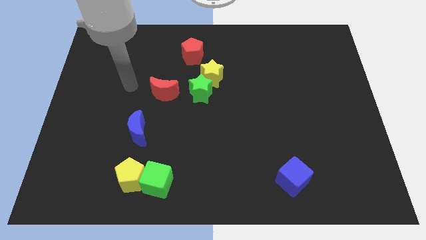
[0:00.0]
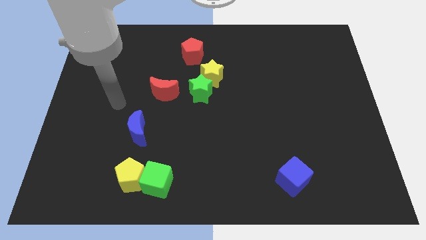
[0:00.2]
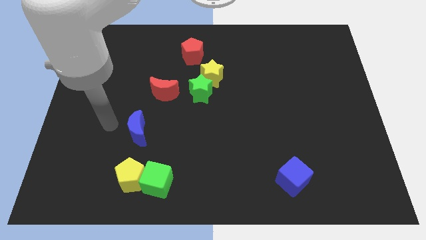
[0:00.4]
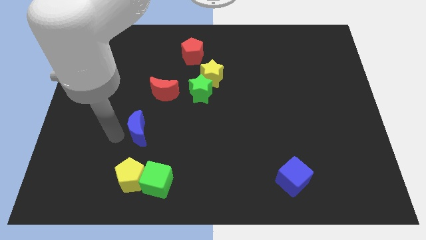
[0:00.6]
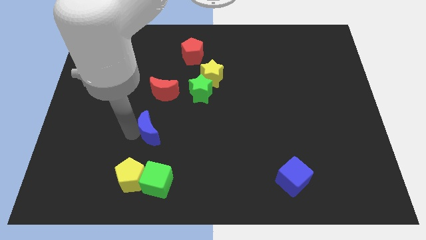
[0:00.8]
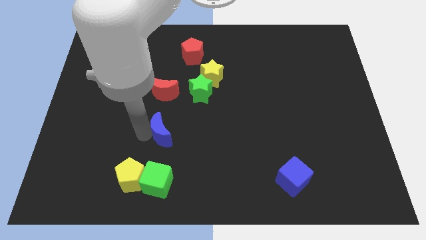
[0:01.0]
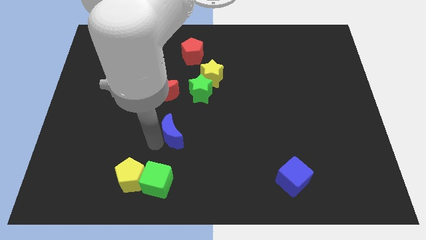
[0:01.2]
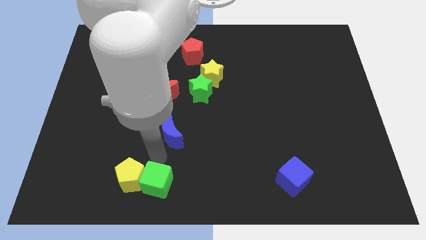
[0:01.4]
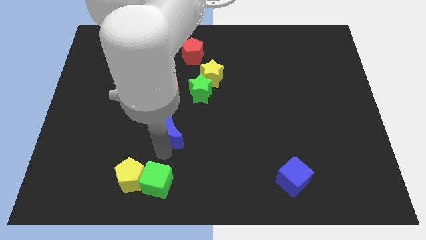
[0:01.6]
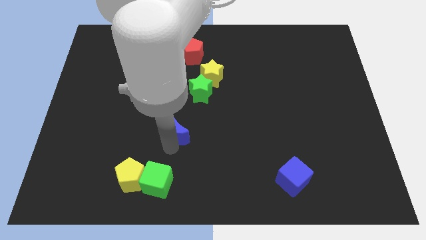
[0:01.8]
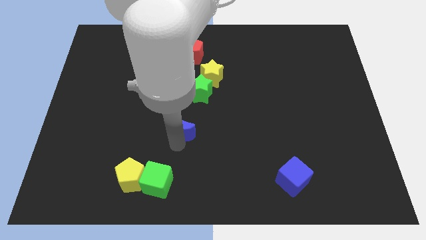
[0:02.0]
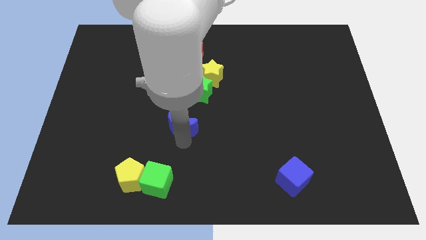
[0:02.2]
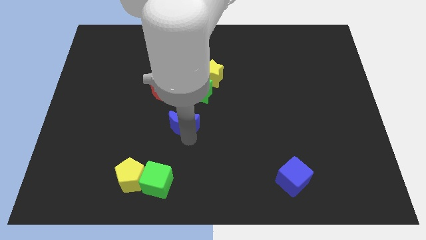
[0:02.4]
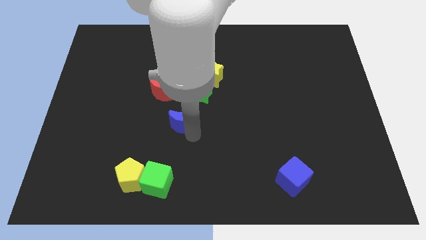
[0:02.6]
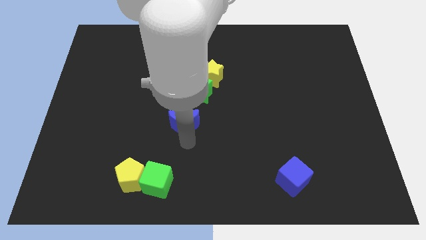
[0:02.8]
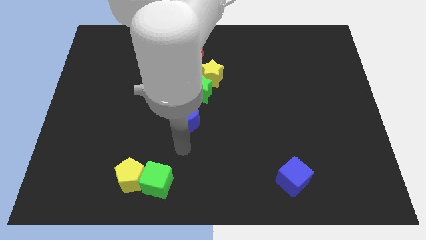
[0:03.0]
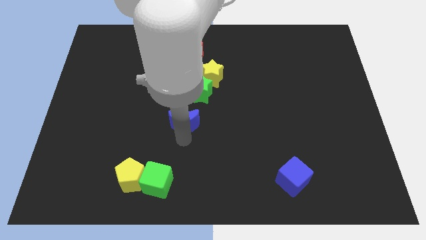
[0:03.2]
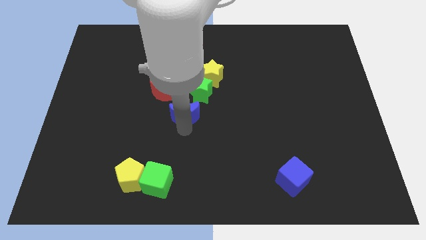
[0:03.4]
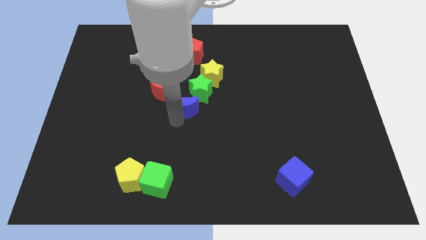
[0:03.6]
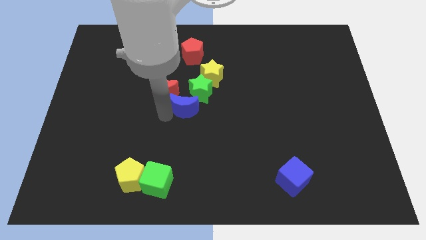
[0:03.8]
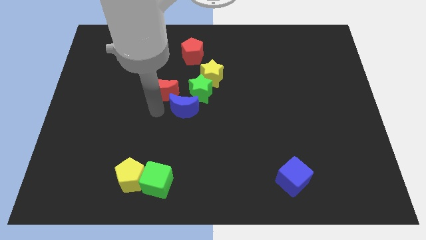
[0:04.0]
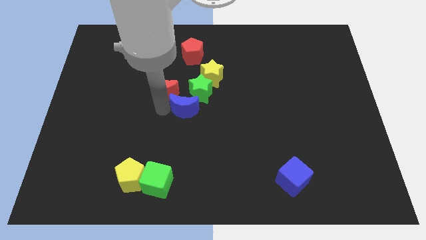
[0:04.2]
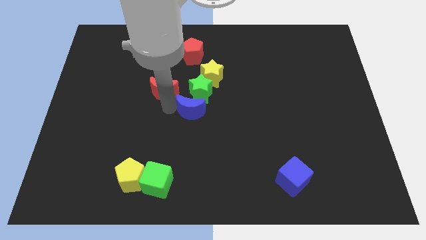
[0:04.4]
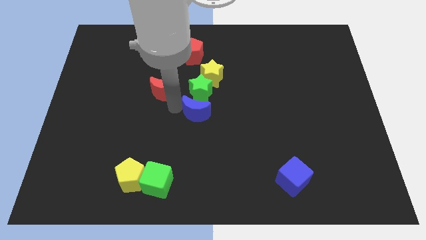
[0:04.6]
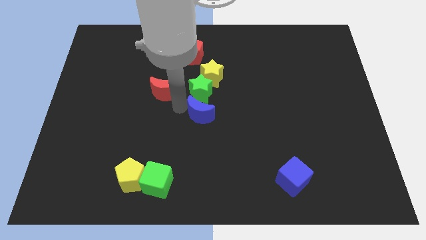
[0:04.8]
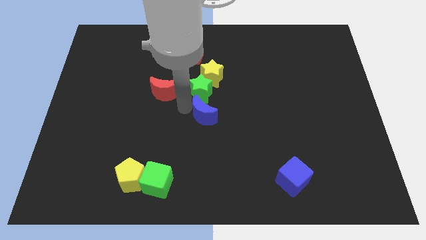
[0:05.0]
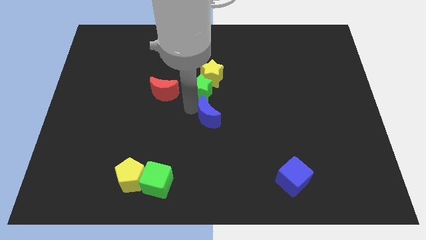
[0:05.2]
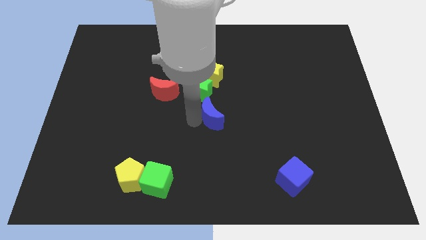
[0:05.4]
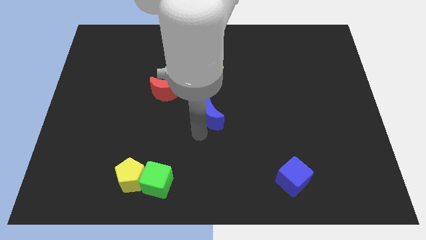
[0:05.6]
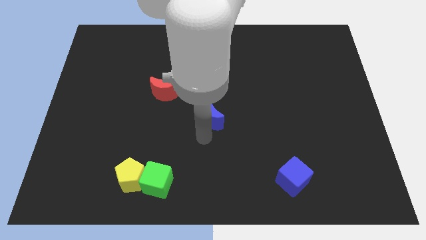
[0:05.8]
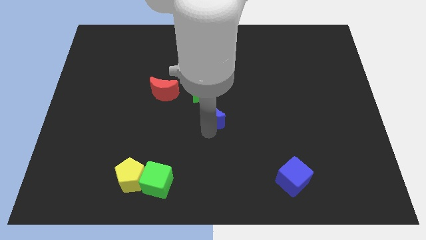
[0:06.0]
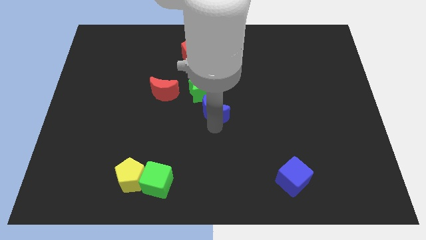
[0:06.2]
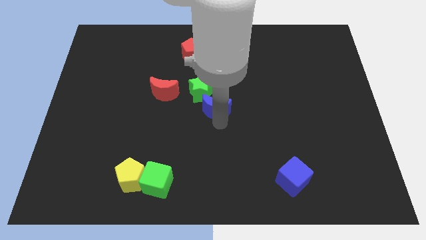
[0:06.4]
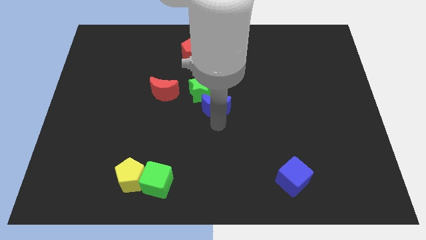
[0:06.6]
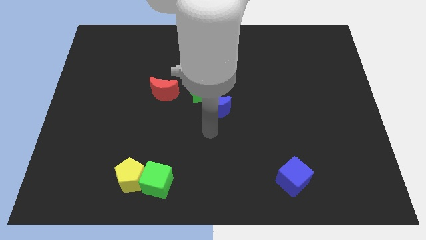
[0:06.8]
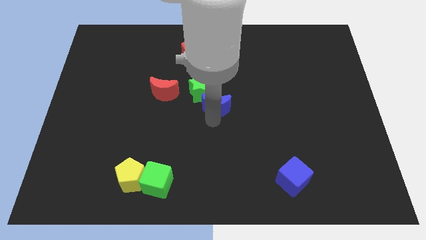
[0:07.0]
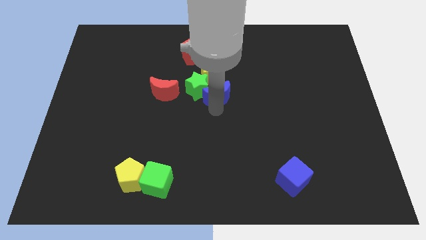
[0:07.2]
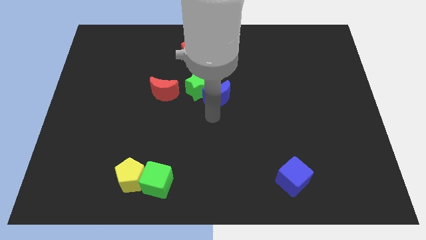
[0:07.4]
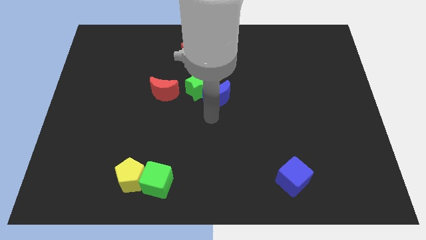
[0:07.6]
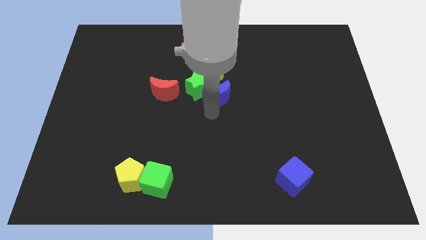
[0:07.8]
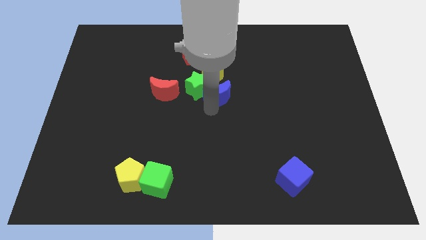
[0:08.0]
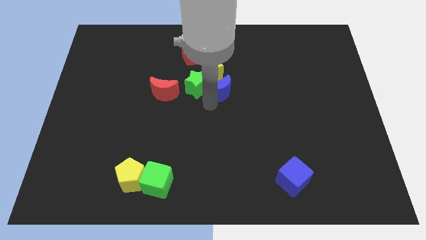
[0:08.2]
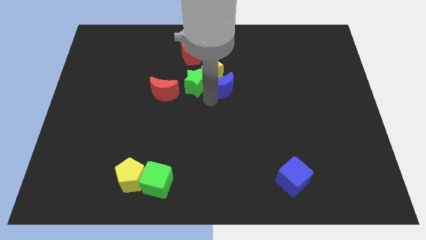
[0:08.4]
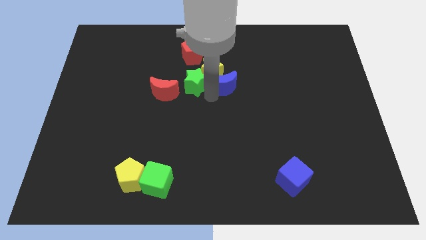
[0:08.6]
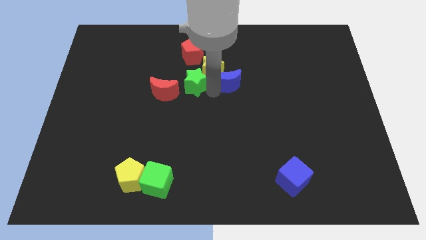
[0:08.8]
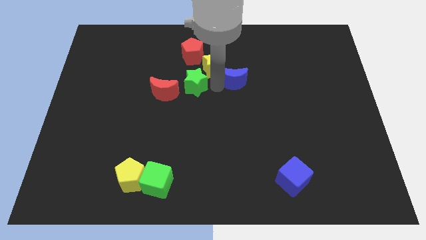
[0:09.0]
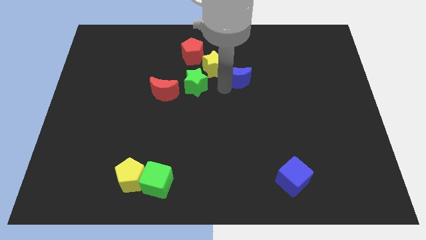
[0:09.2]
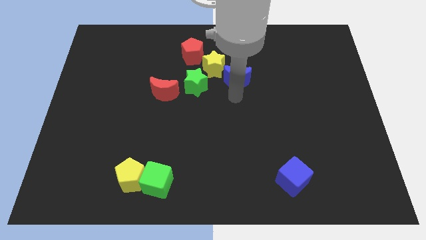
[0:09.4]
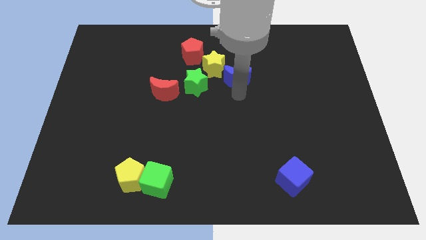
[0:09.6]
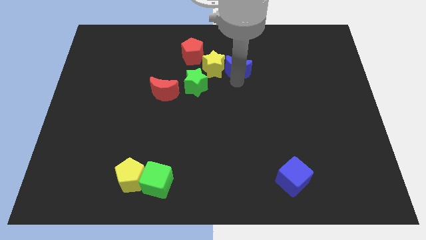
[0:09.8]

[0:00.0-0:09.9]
move the blue moon to the top right of the yellow star

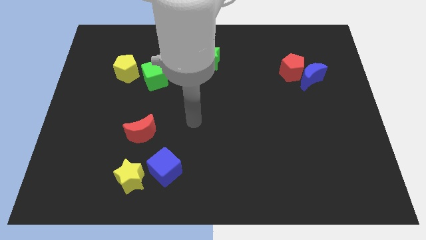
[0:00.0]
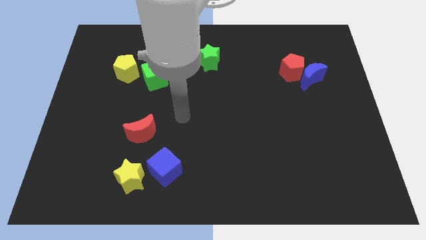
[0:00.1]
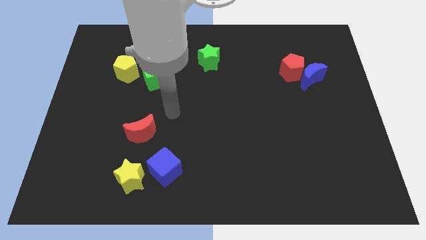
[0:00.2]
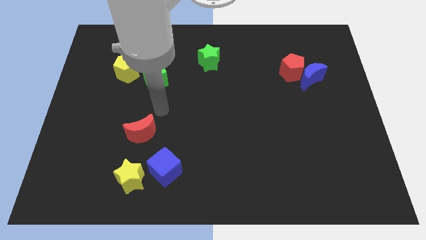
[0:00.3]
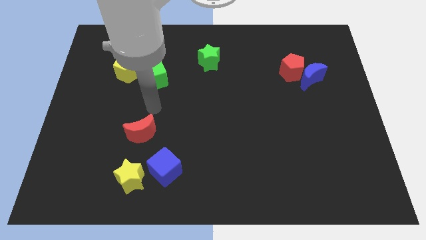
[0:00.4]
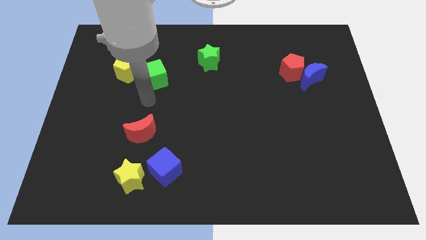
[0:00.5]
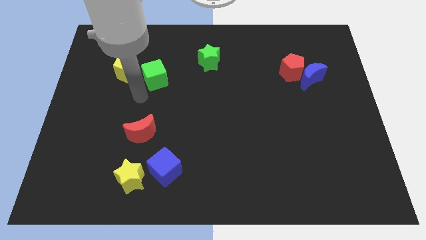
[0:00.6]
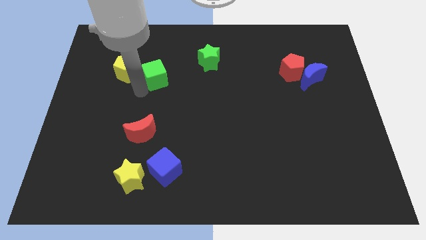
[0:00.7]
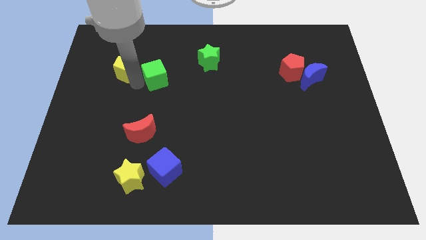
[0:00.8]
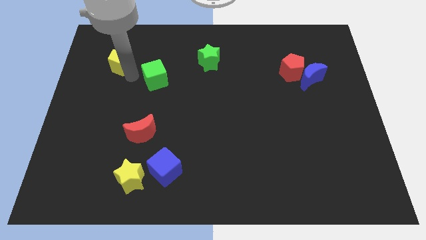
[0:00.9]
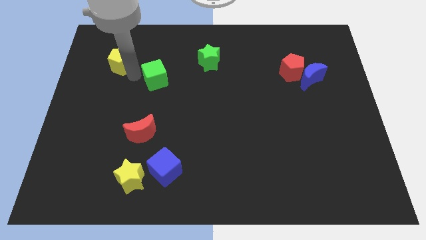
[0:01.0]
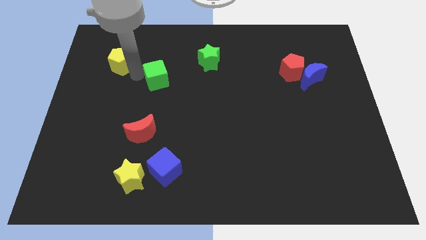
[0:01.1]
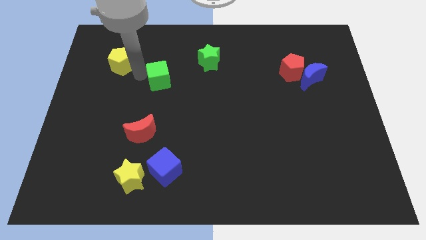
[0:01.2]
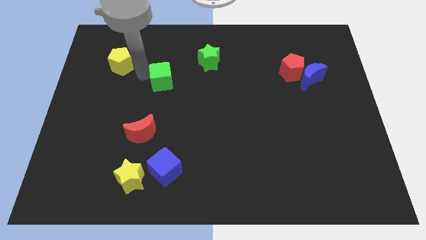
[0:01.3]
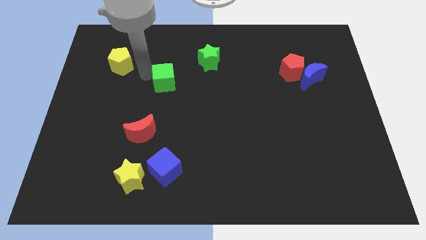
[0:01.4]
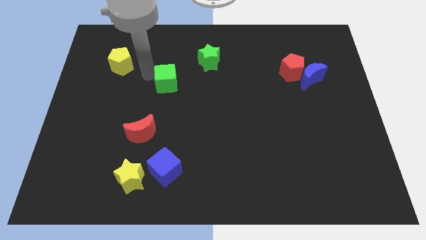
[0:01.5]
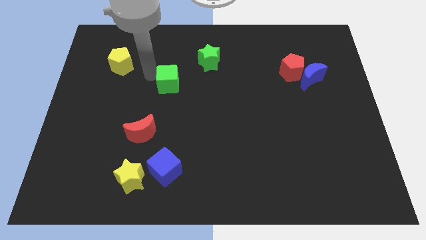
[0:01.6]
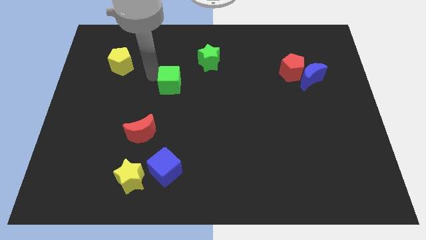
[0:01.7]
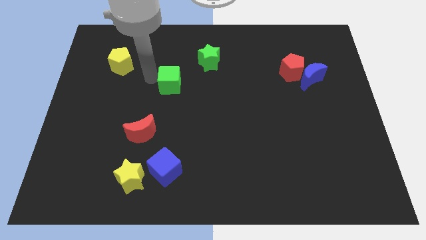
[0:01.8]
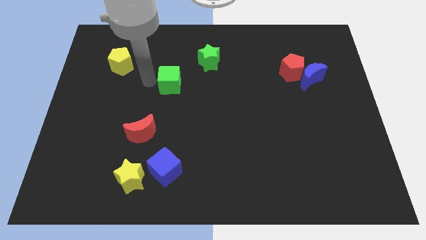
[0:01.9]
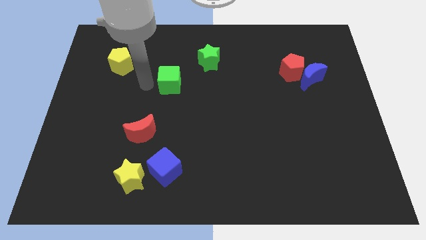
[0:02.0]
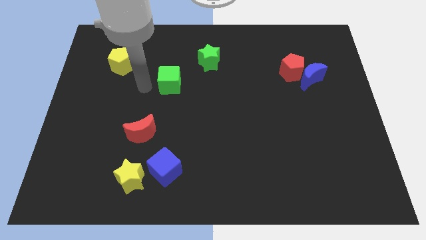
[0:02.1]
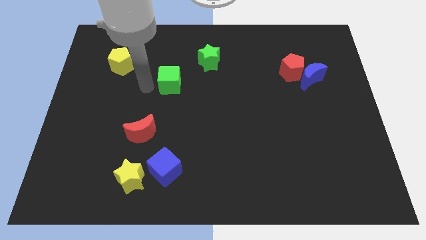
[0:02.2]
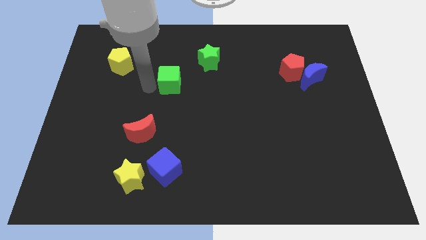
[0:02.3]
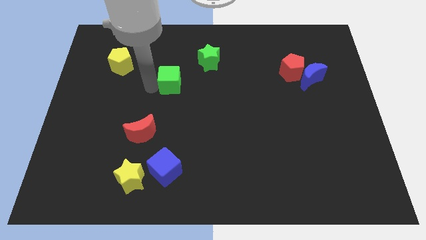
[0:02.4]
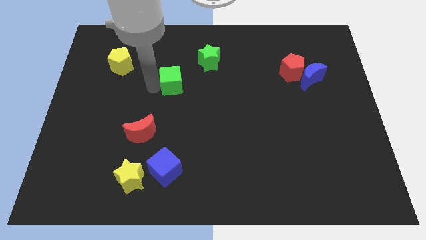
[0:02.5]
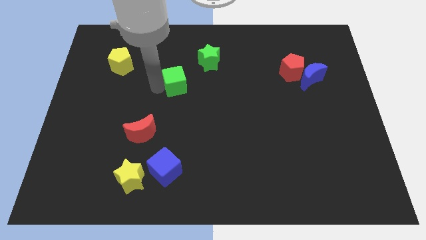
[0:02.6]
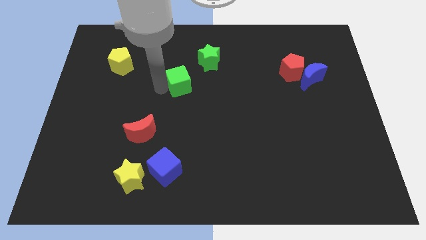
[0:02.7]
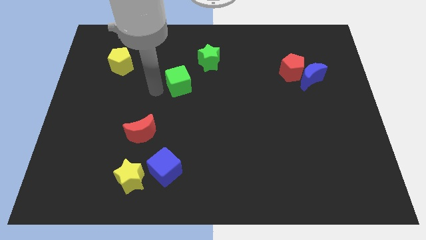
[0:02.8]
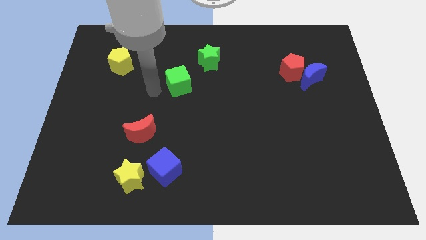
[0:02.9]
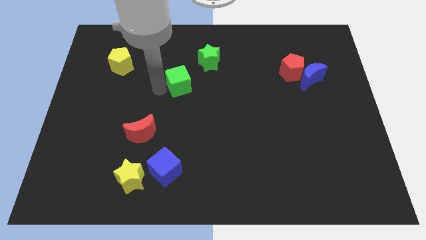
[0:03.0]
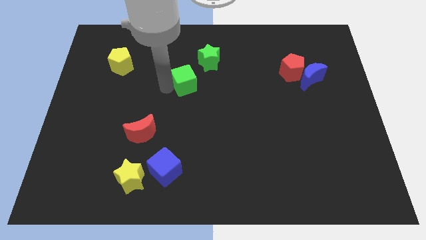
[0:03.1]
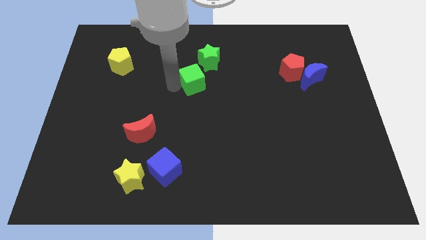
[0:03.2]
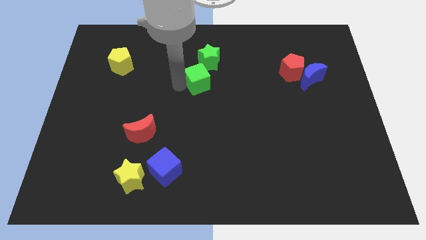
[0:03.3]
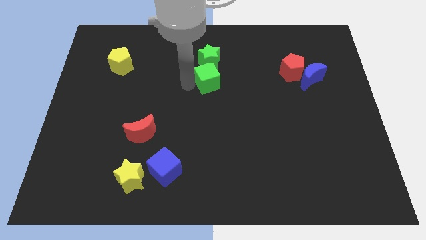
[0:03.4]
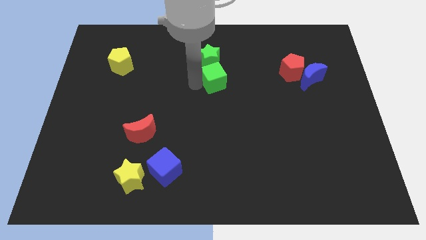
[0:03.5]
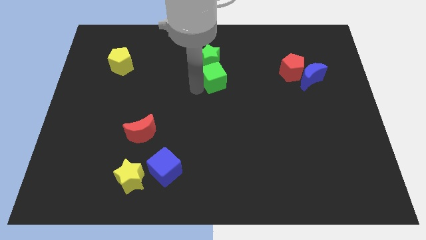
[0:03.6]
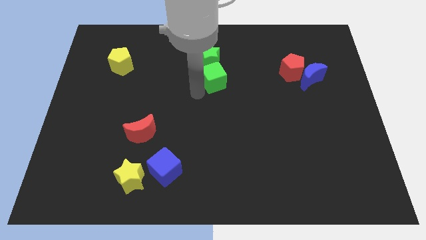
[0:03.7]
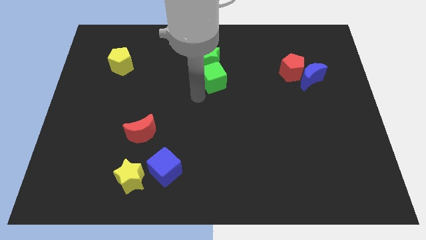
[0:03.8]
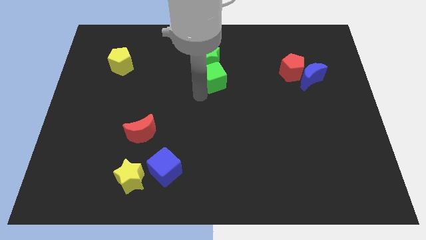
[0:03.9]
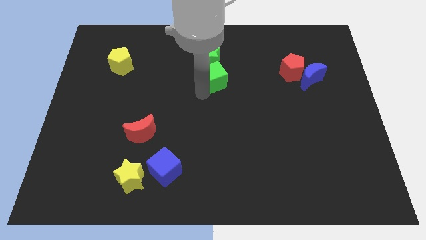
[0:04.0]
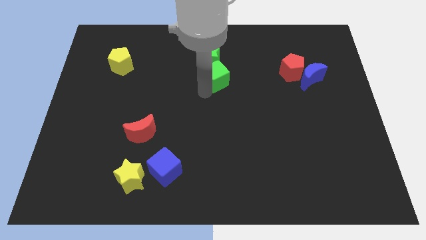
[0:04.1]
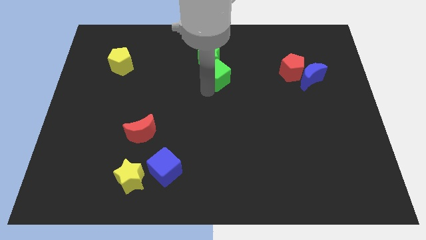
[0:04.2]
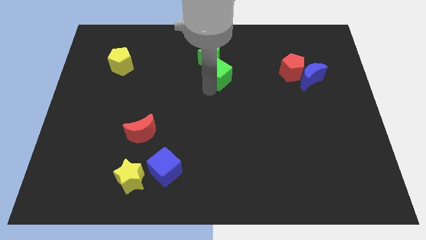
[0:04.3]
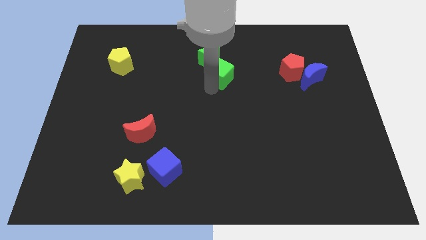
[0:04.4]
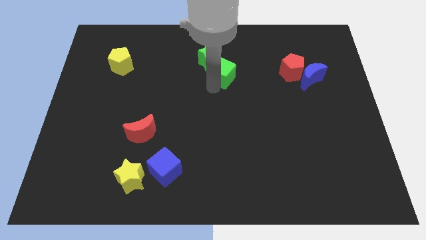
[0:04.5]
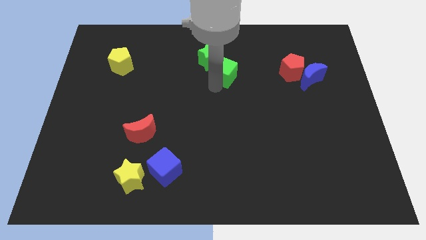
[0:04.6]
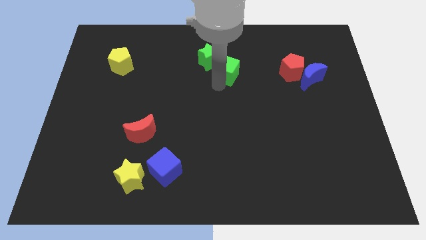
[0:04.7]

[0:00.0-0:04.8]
move the green cube just right of the green star
